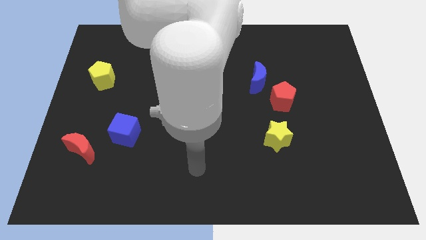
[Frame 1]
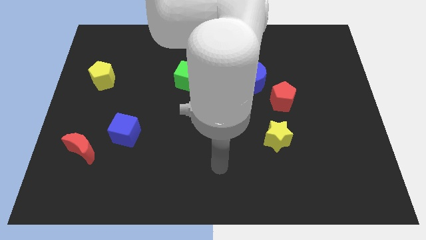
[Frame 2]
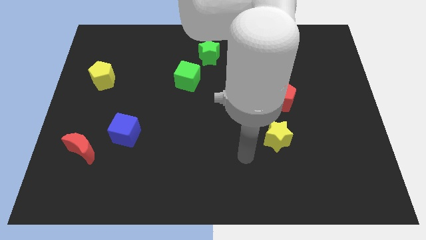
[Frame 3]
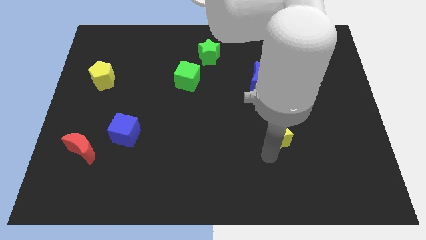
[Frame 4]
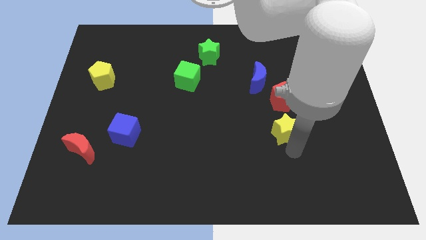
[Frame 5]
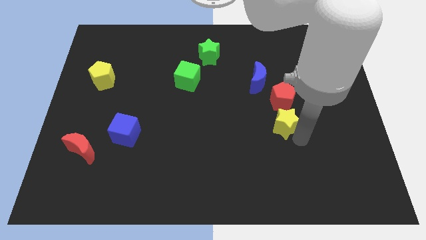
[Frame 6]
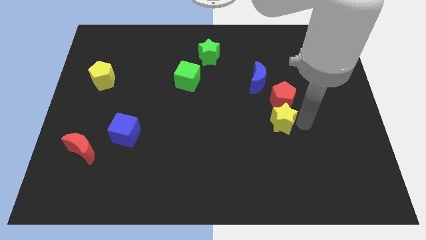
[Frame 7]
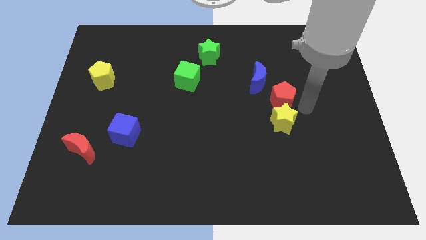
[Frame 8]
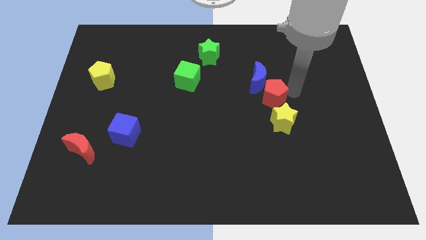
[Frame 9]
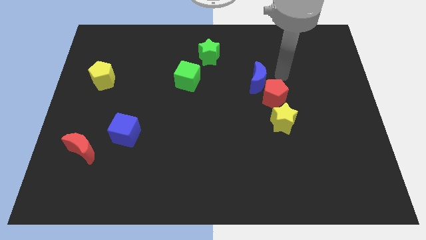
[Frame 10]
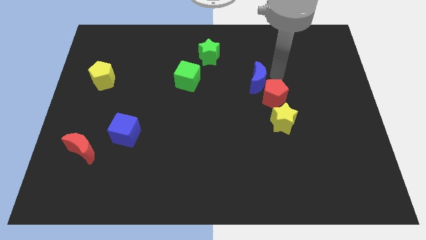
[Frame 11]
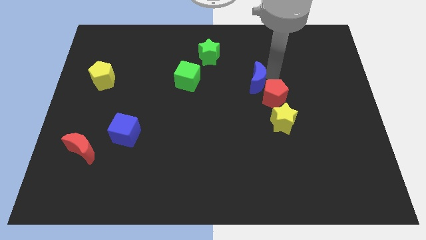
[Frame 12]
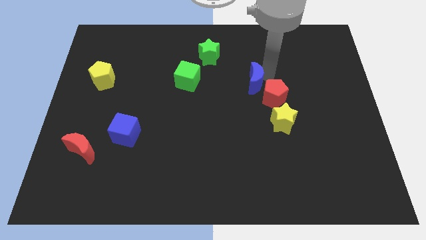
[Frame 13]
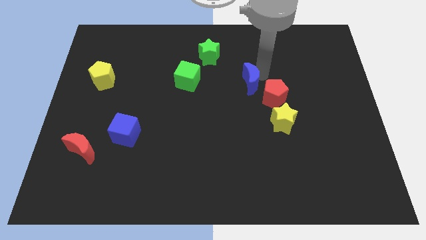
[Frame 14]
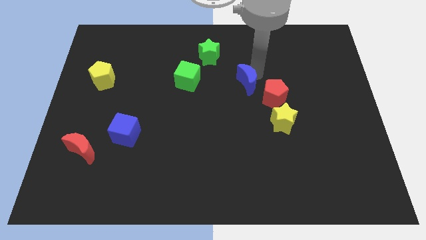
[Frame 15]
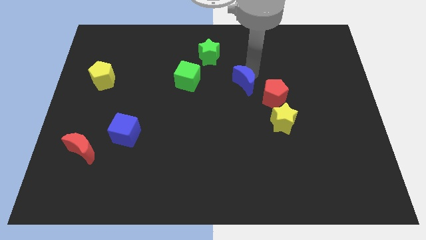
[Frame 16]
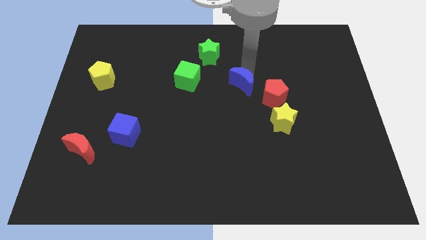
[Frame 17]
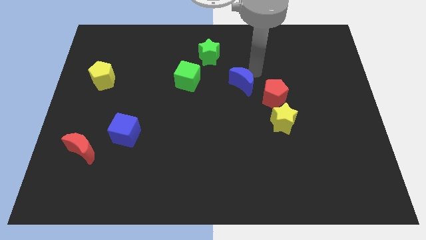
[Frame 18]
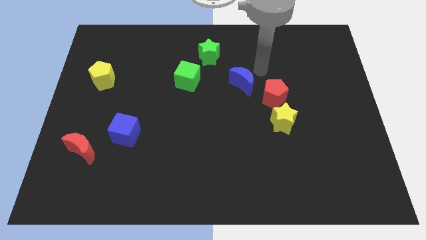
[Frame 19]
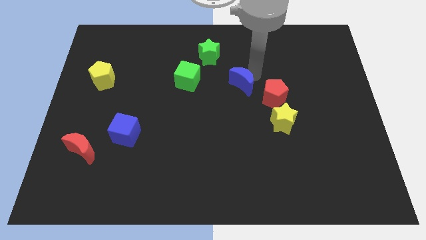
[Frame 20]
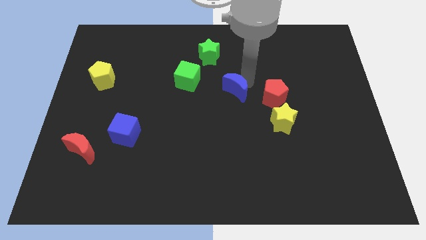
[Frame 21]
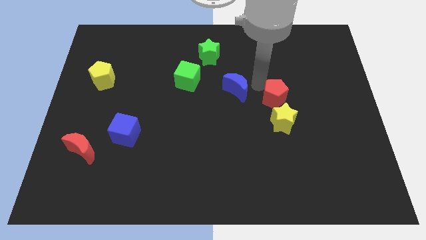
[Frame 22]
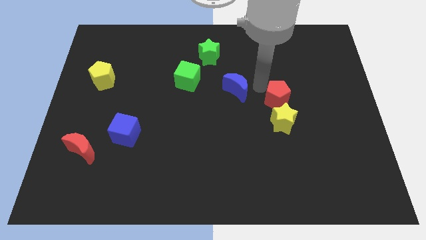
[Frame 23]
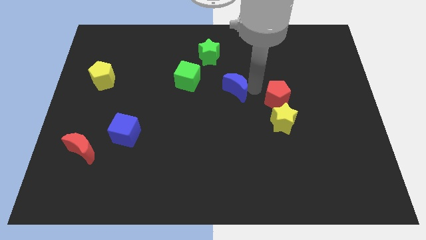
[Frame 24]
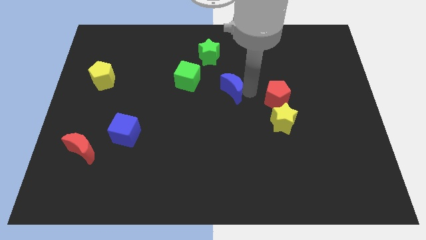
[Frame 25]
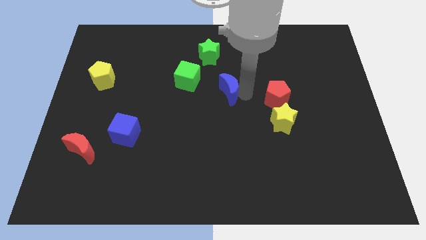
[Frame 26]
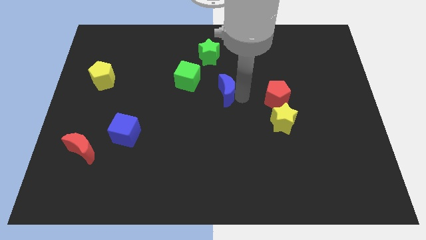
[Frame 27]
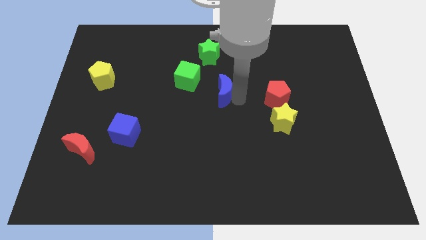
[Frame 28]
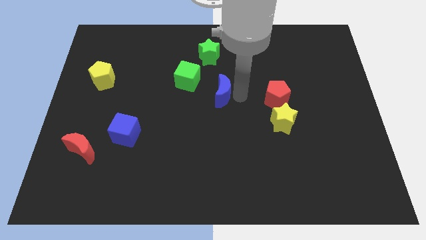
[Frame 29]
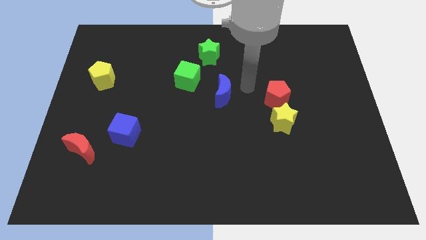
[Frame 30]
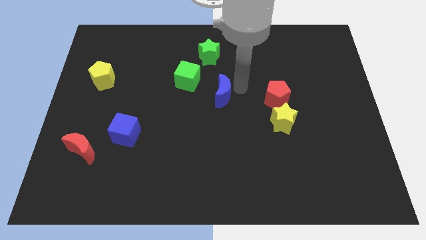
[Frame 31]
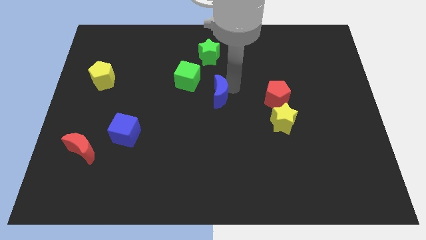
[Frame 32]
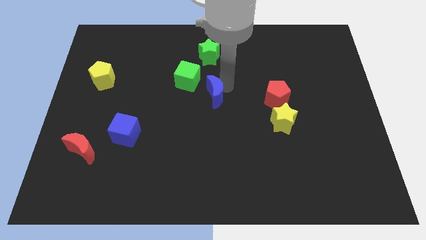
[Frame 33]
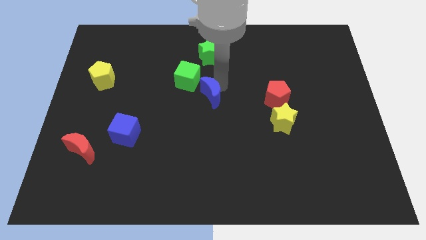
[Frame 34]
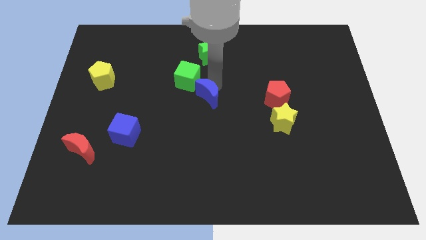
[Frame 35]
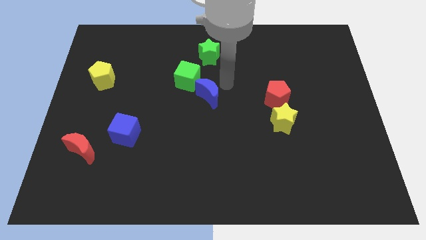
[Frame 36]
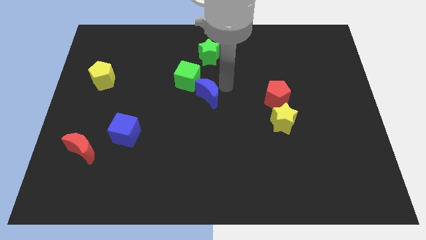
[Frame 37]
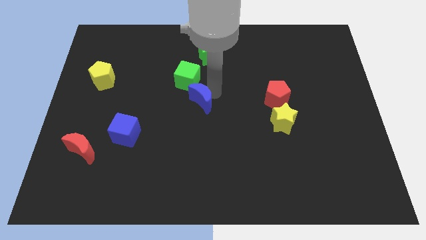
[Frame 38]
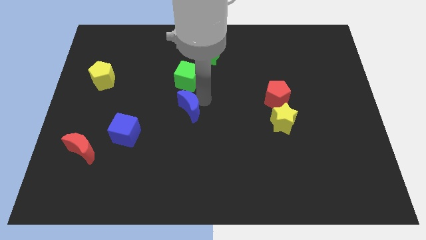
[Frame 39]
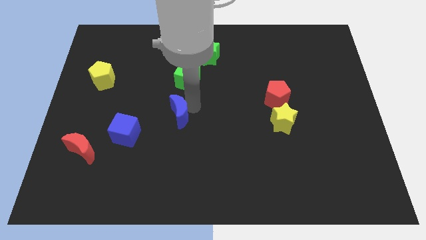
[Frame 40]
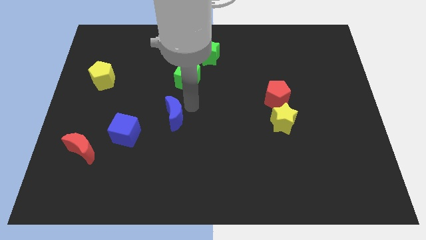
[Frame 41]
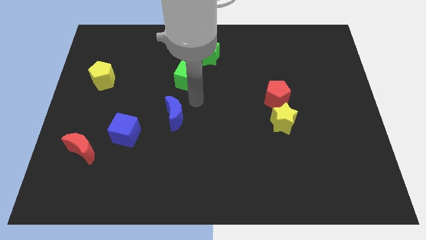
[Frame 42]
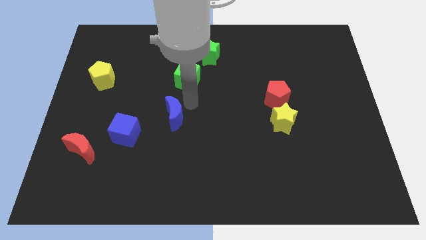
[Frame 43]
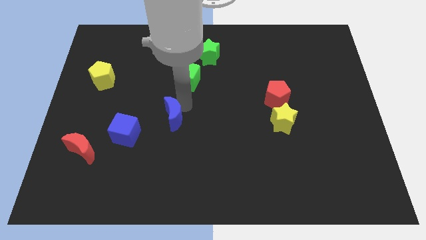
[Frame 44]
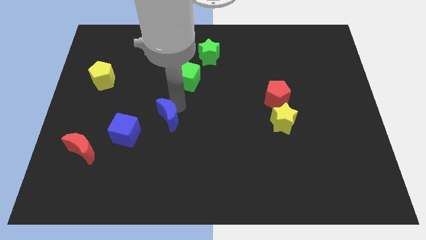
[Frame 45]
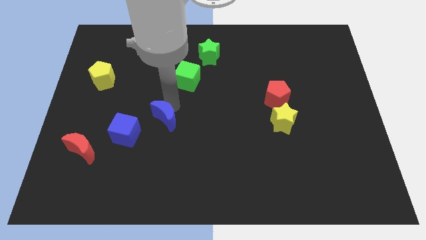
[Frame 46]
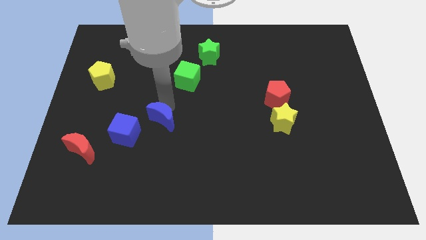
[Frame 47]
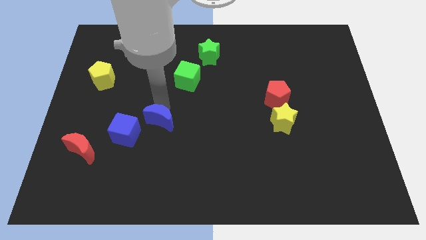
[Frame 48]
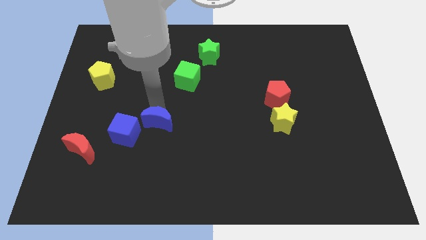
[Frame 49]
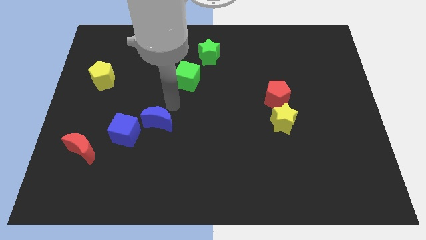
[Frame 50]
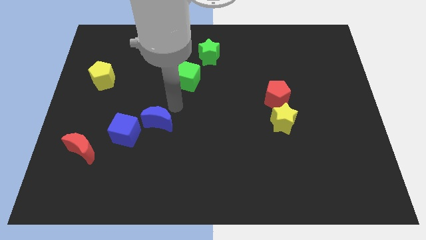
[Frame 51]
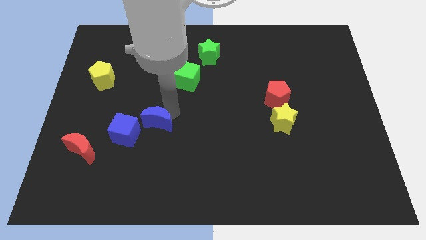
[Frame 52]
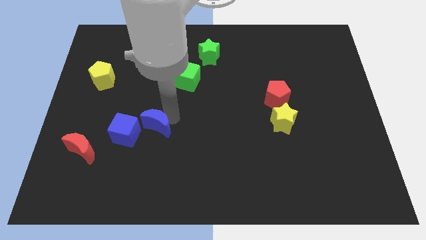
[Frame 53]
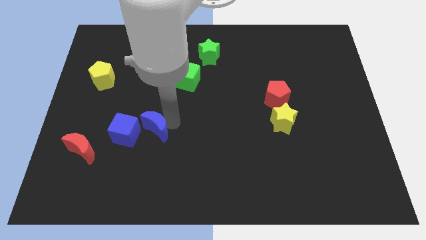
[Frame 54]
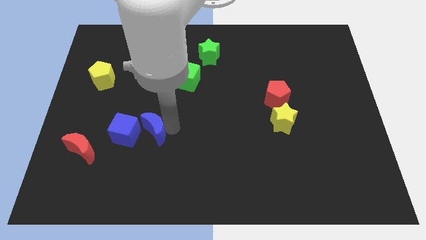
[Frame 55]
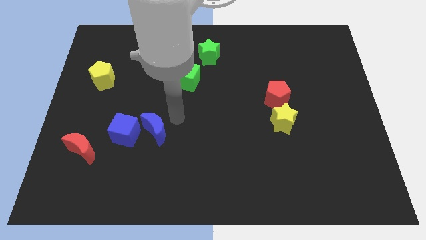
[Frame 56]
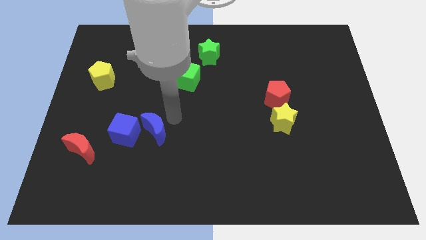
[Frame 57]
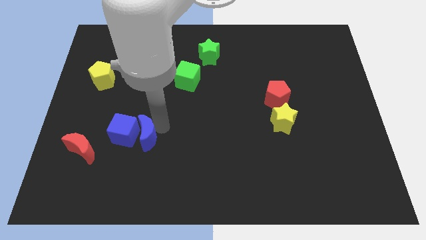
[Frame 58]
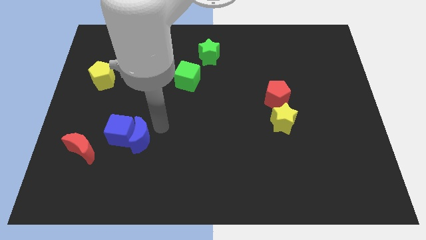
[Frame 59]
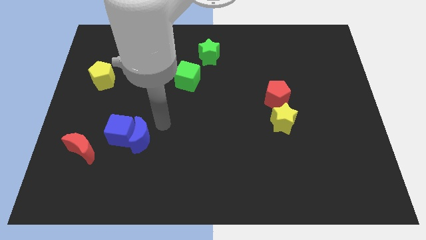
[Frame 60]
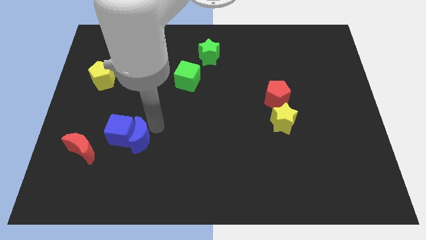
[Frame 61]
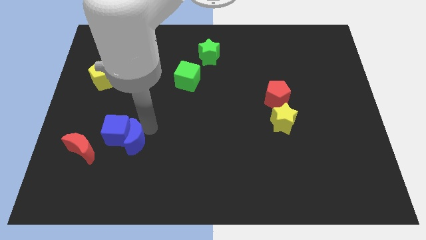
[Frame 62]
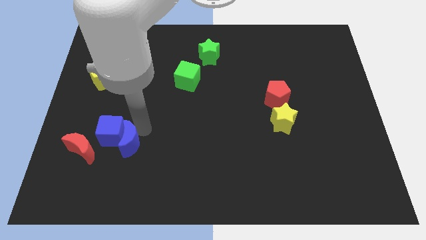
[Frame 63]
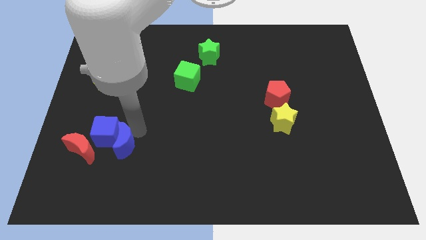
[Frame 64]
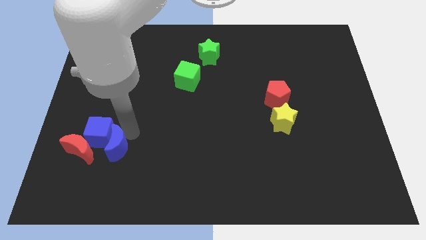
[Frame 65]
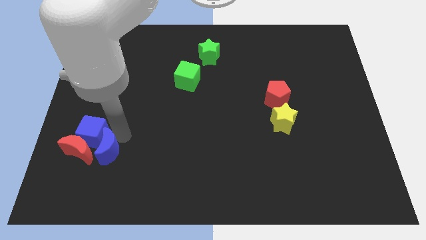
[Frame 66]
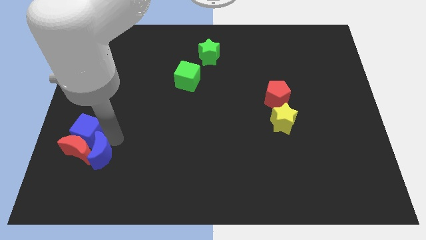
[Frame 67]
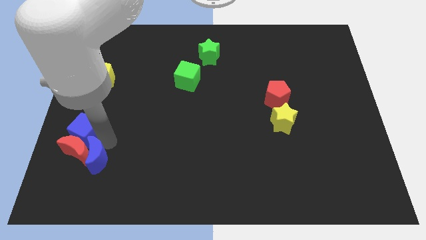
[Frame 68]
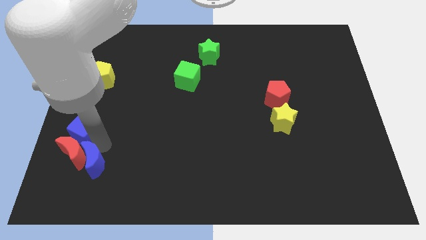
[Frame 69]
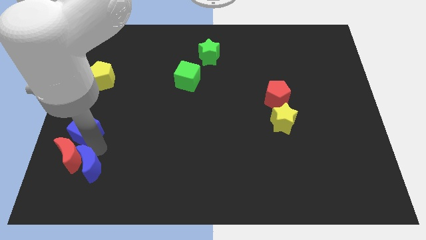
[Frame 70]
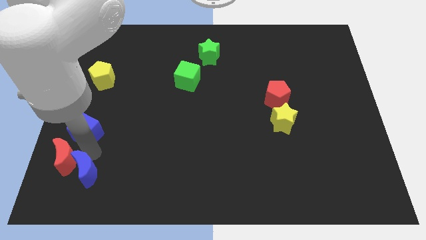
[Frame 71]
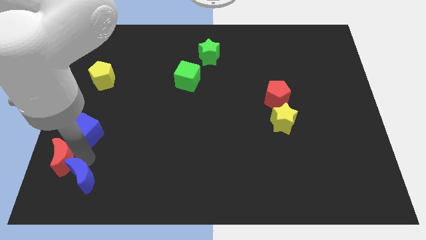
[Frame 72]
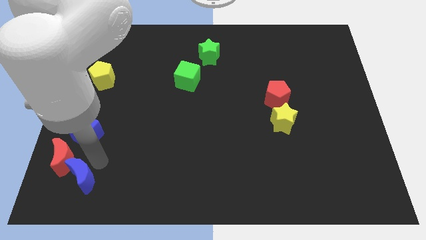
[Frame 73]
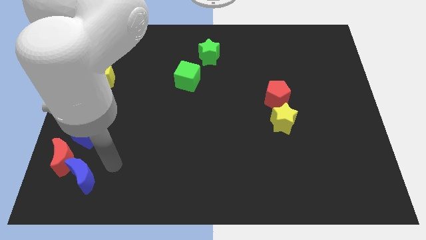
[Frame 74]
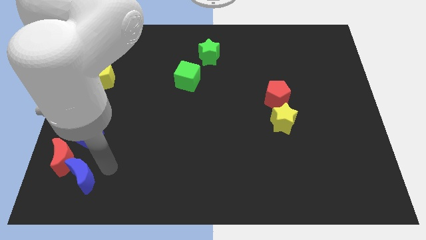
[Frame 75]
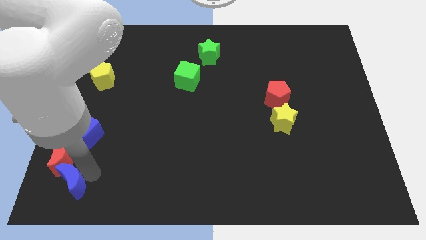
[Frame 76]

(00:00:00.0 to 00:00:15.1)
move the blue moon to the bottom left corner
